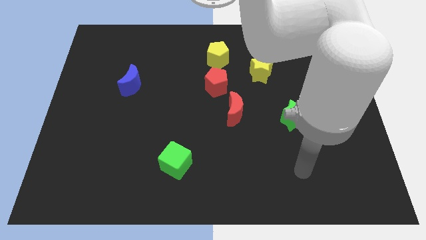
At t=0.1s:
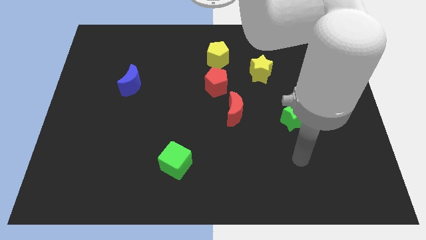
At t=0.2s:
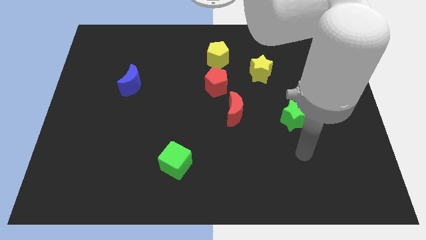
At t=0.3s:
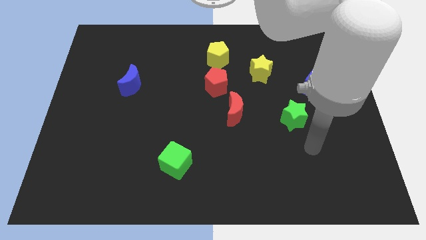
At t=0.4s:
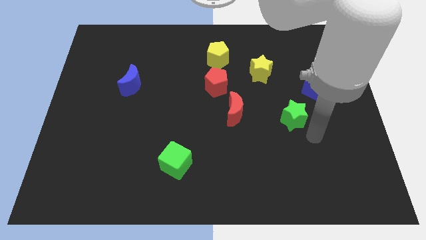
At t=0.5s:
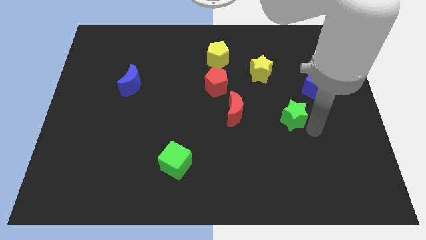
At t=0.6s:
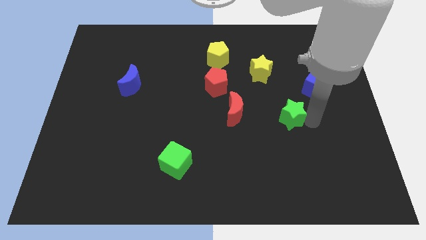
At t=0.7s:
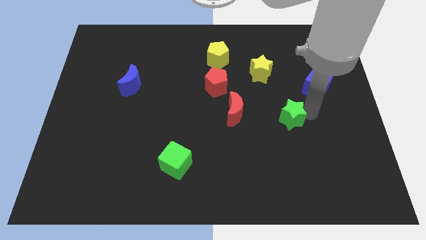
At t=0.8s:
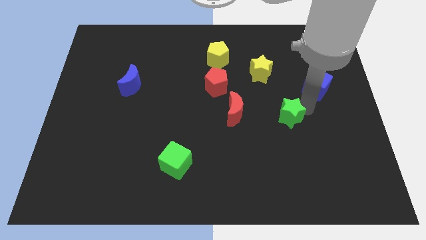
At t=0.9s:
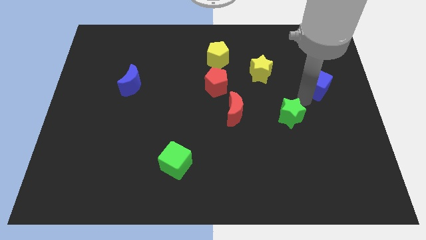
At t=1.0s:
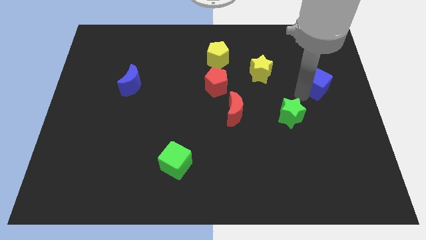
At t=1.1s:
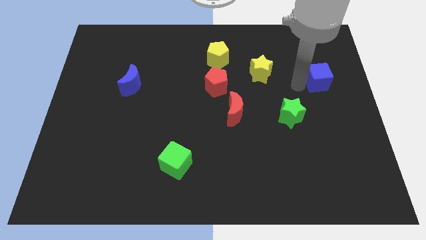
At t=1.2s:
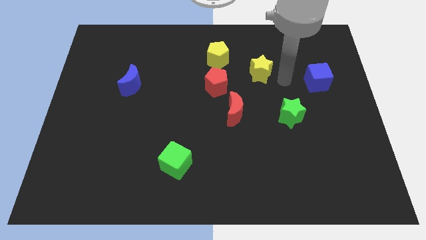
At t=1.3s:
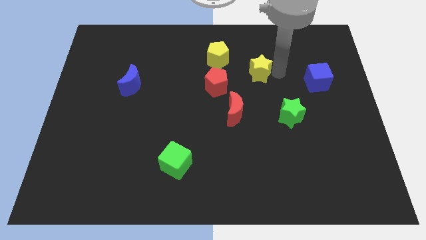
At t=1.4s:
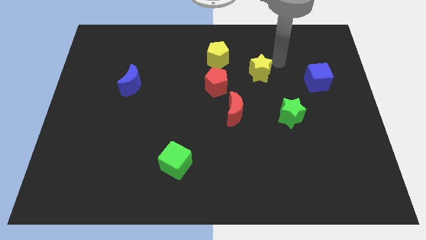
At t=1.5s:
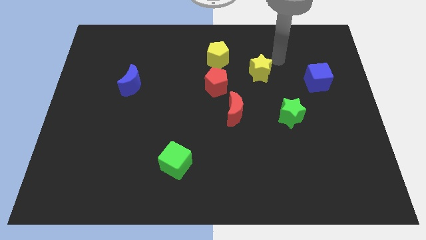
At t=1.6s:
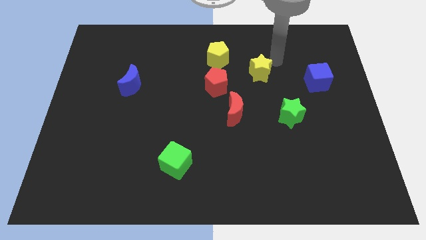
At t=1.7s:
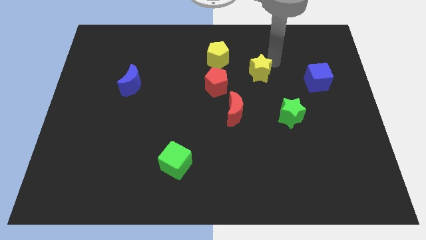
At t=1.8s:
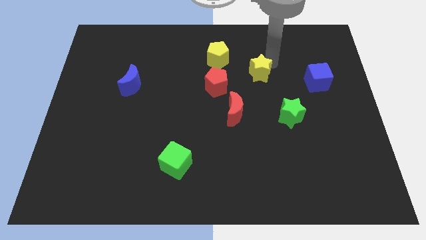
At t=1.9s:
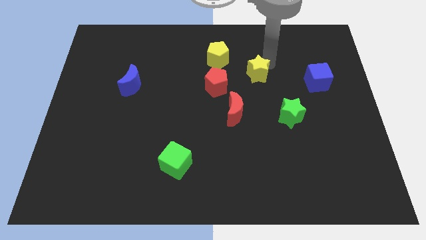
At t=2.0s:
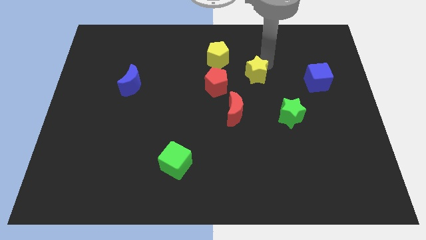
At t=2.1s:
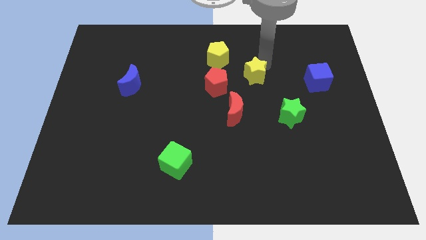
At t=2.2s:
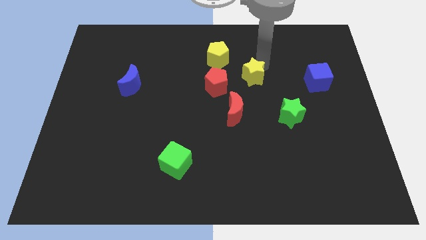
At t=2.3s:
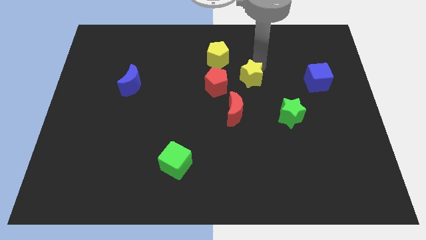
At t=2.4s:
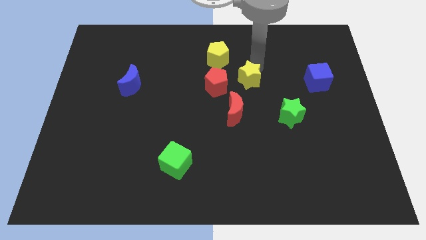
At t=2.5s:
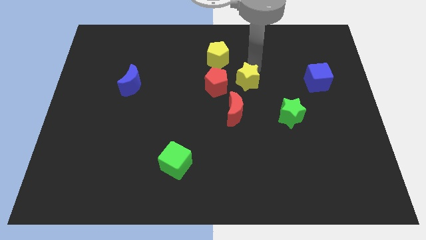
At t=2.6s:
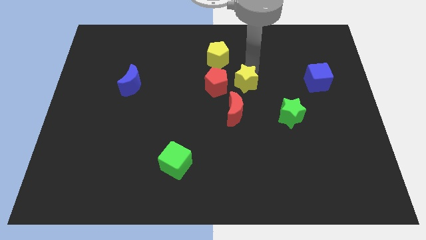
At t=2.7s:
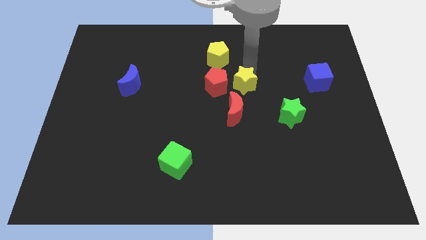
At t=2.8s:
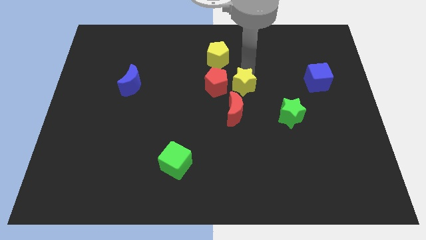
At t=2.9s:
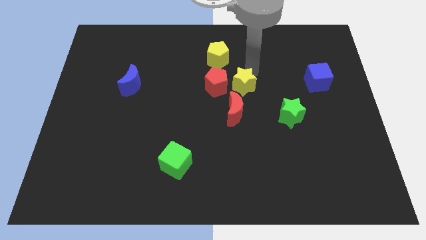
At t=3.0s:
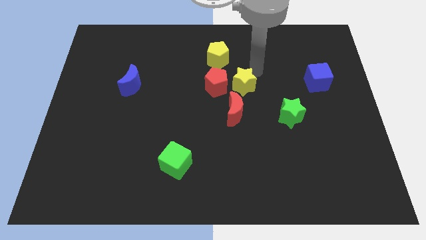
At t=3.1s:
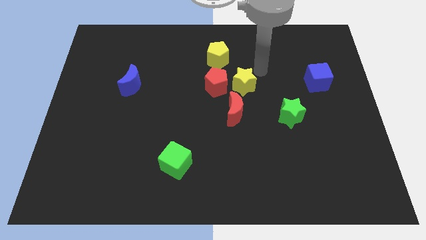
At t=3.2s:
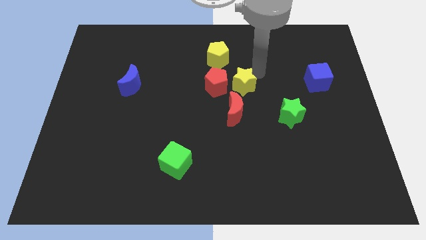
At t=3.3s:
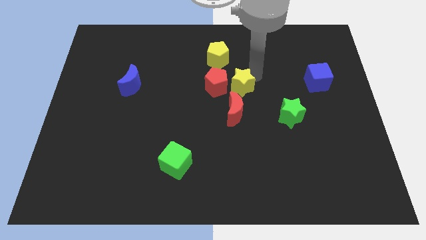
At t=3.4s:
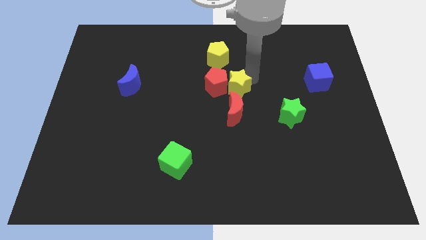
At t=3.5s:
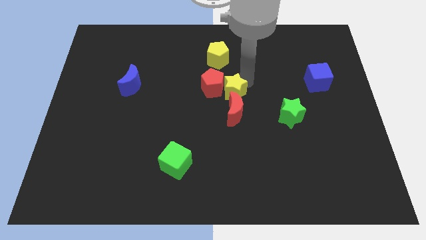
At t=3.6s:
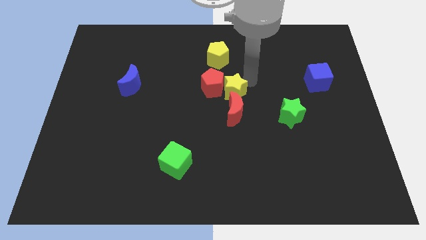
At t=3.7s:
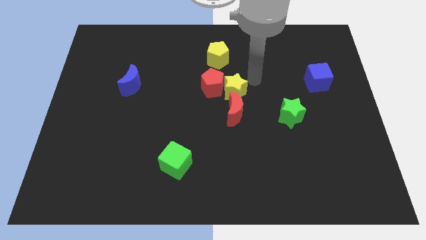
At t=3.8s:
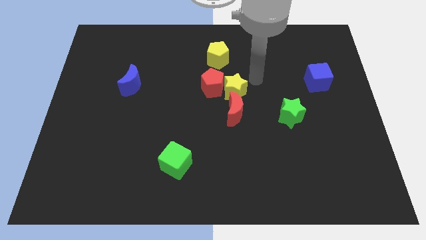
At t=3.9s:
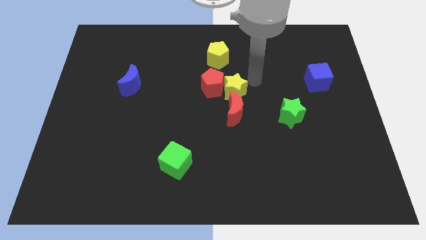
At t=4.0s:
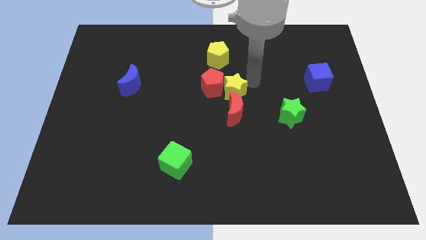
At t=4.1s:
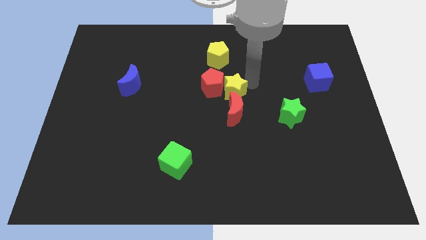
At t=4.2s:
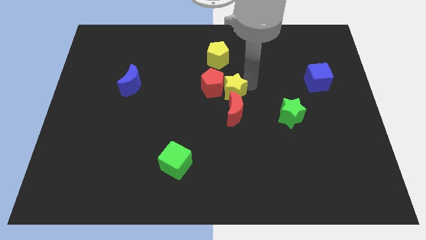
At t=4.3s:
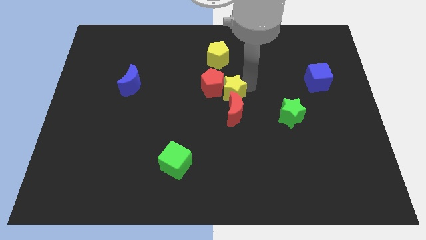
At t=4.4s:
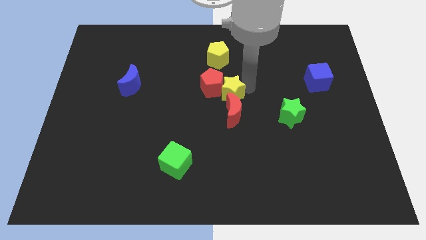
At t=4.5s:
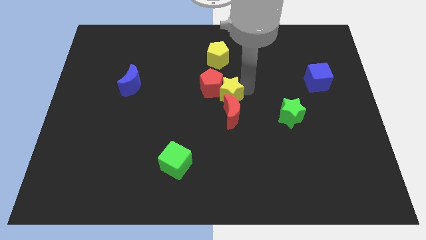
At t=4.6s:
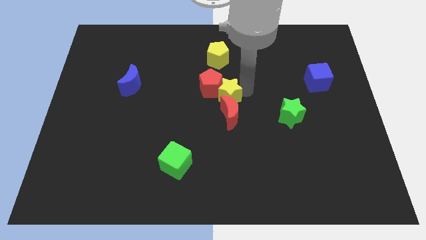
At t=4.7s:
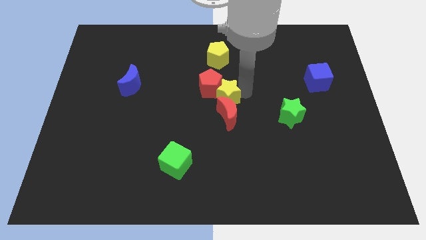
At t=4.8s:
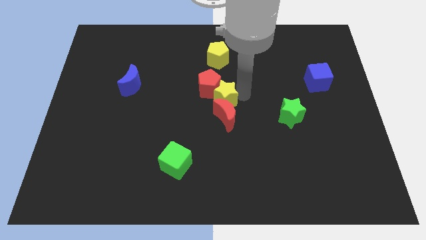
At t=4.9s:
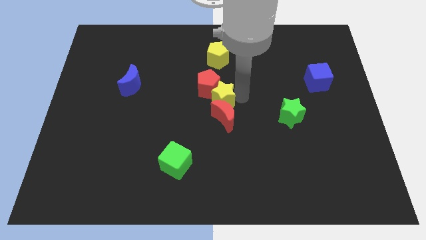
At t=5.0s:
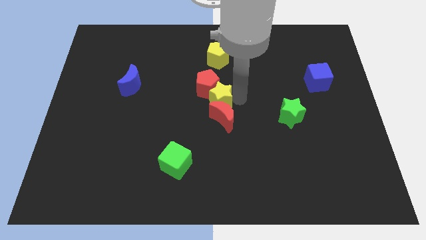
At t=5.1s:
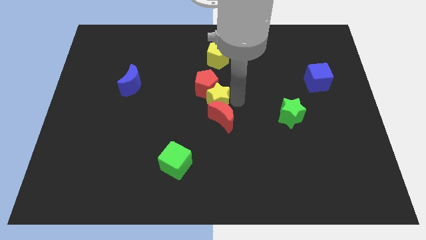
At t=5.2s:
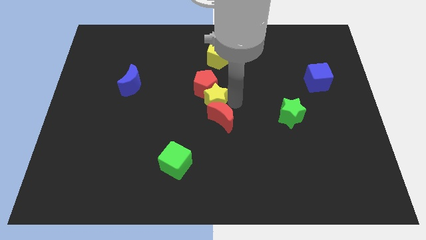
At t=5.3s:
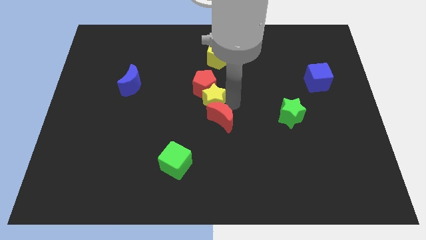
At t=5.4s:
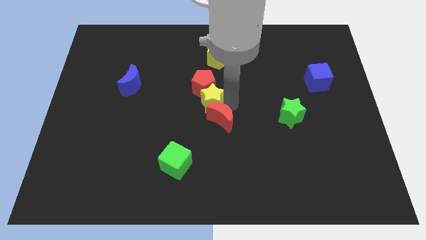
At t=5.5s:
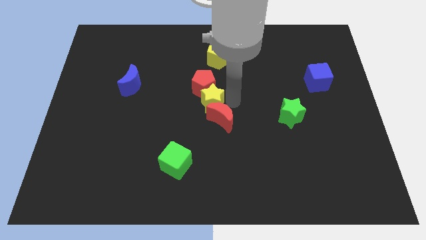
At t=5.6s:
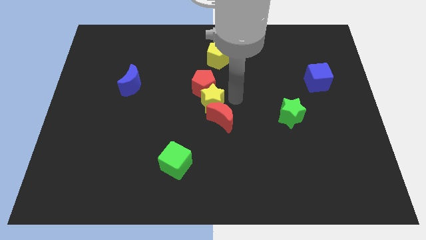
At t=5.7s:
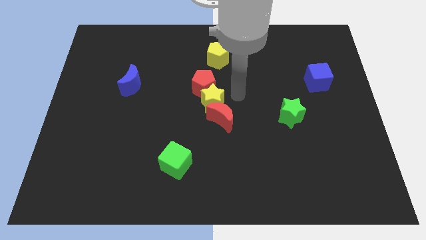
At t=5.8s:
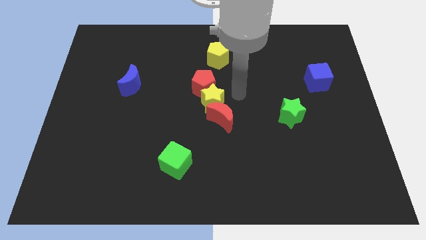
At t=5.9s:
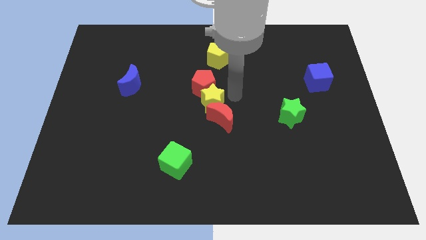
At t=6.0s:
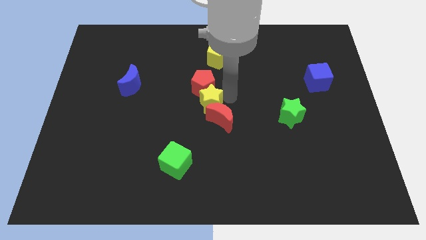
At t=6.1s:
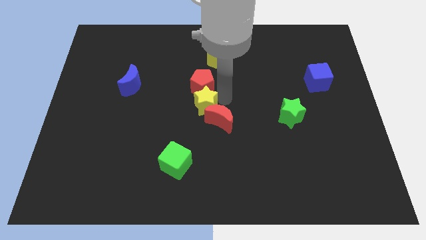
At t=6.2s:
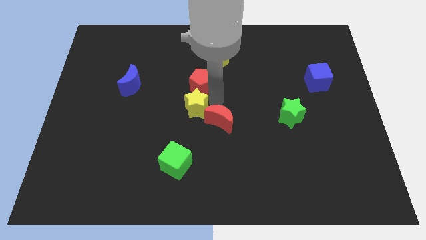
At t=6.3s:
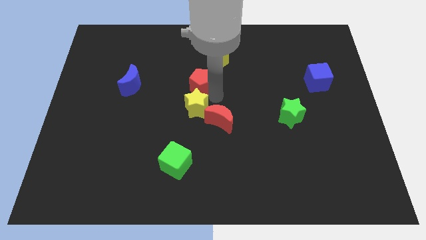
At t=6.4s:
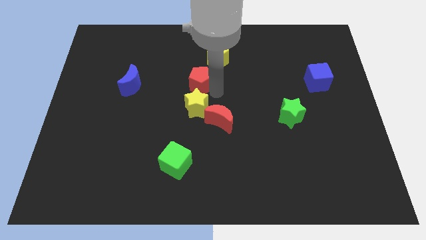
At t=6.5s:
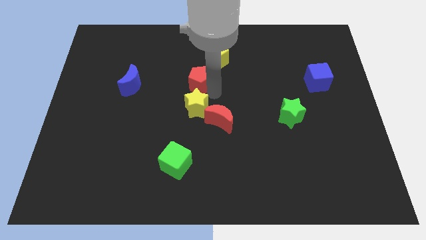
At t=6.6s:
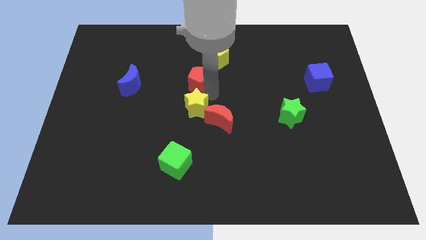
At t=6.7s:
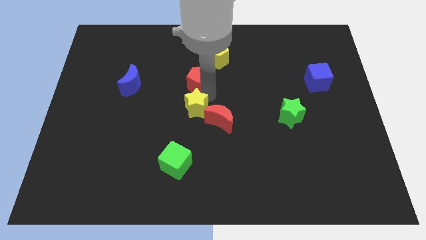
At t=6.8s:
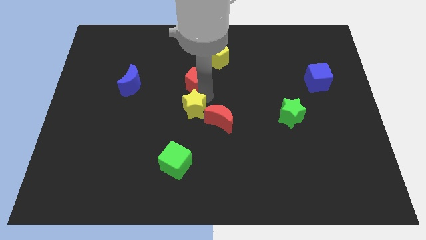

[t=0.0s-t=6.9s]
put the yellow star to the top of the green cube

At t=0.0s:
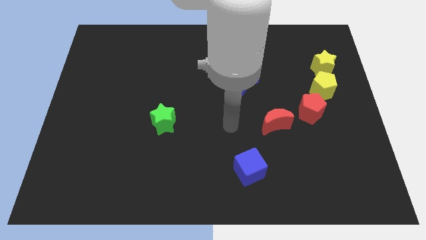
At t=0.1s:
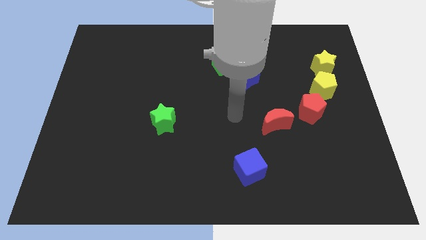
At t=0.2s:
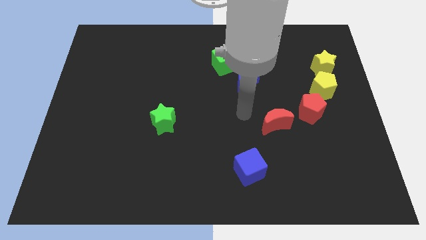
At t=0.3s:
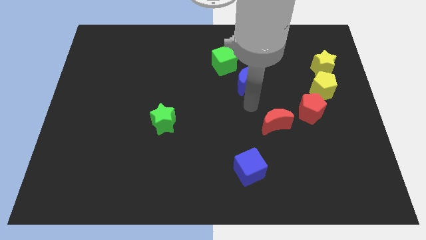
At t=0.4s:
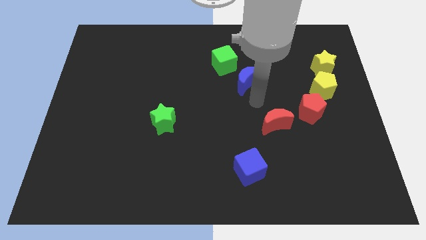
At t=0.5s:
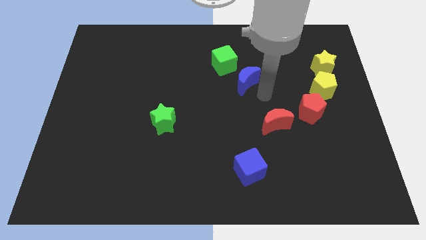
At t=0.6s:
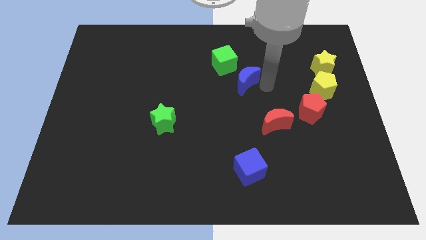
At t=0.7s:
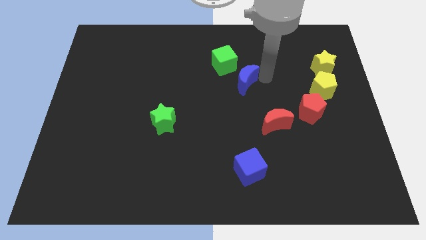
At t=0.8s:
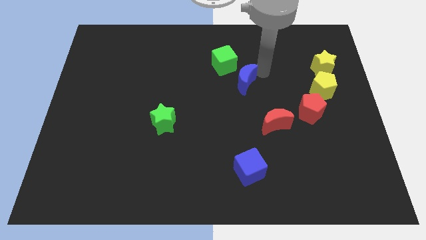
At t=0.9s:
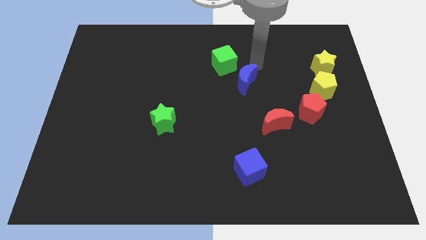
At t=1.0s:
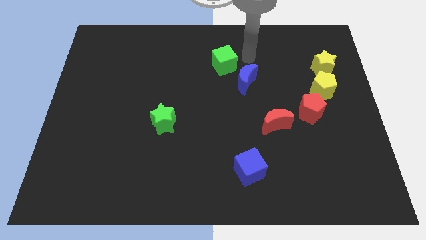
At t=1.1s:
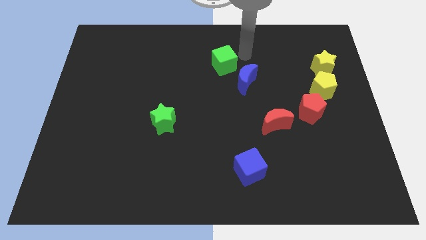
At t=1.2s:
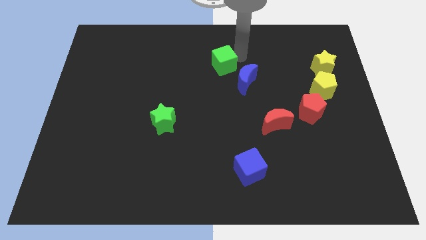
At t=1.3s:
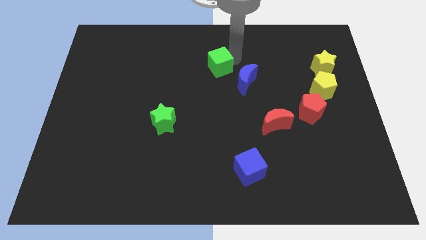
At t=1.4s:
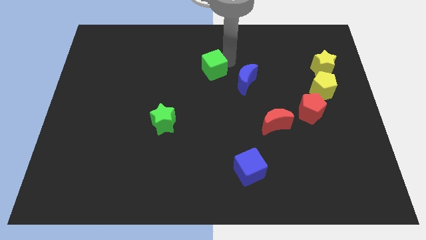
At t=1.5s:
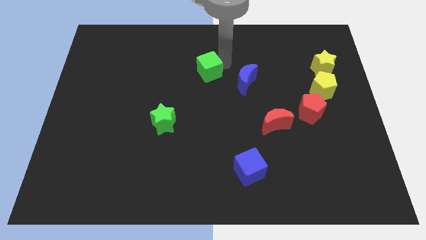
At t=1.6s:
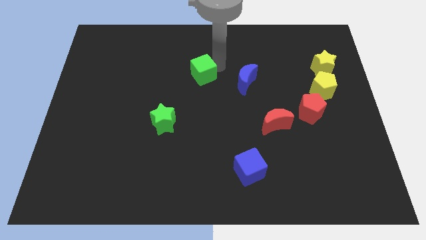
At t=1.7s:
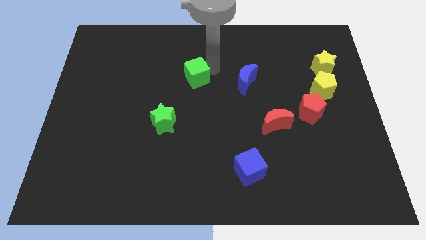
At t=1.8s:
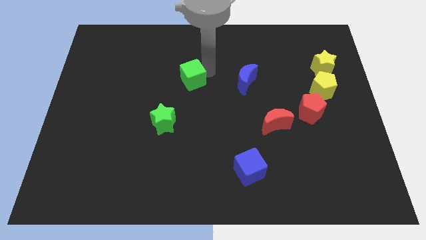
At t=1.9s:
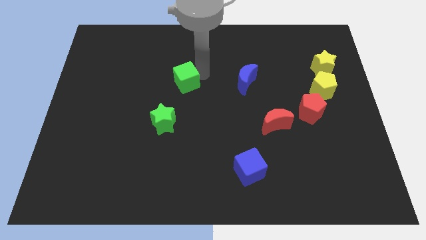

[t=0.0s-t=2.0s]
put the green cube above the green star
